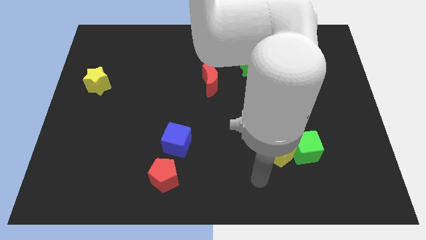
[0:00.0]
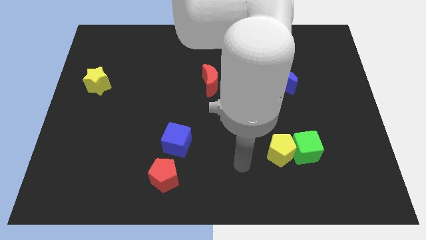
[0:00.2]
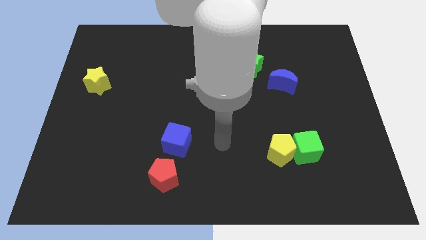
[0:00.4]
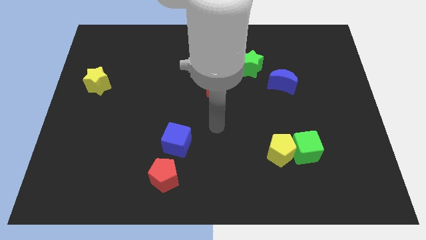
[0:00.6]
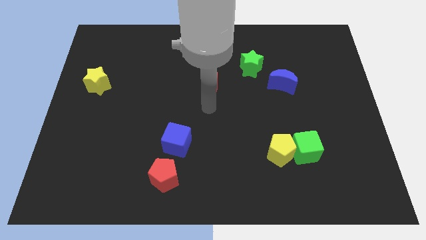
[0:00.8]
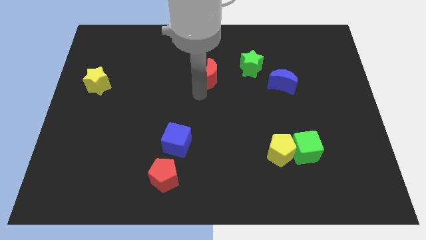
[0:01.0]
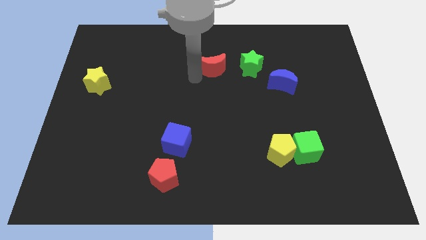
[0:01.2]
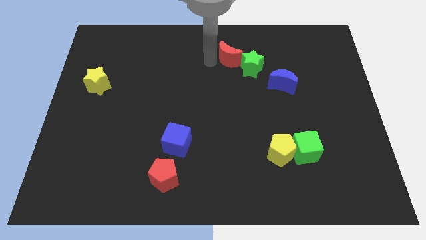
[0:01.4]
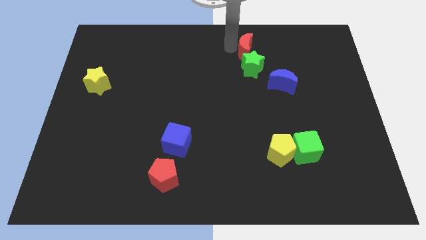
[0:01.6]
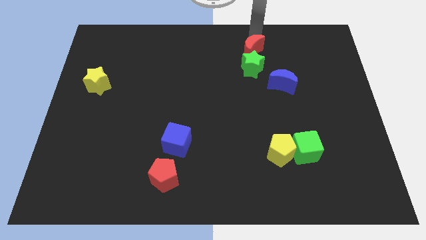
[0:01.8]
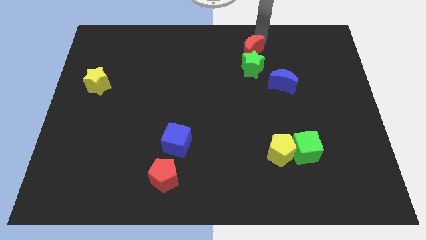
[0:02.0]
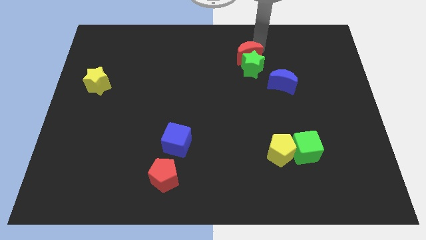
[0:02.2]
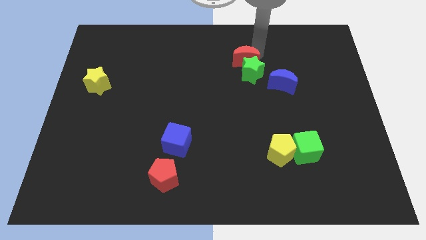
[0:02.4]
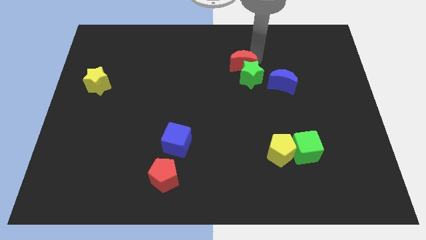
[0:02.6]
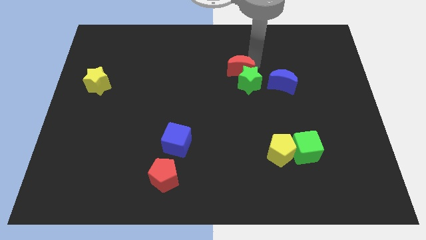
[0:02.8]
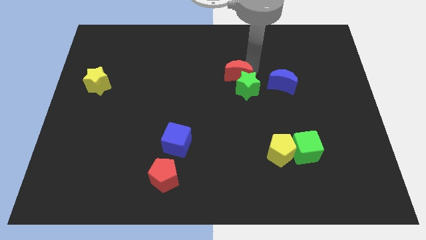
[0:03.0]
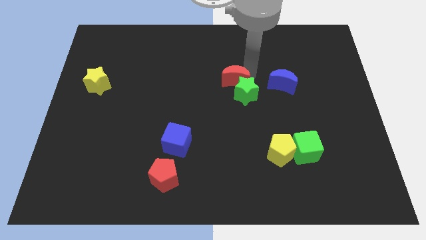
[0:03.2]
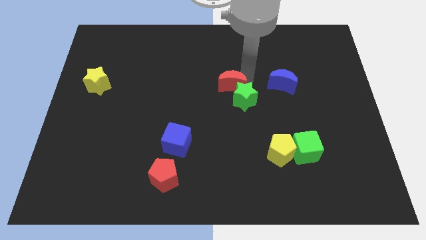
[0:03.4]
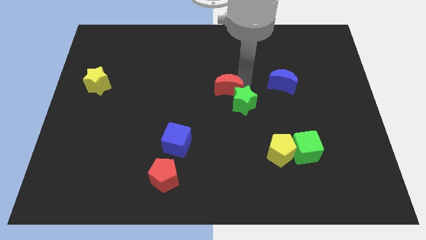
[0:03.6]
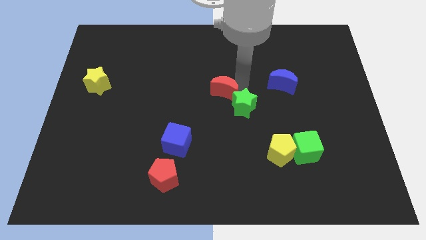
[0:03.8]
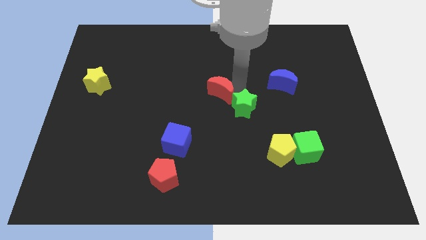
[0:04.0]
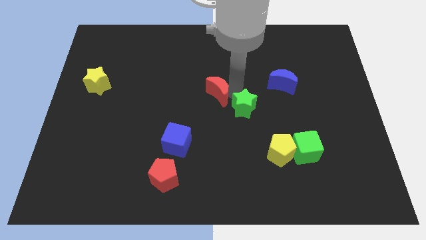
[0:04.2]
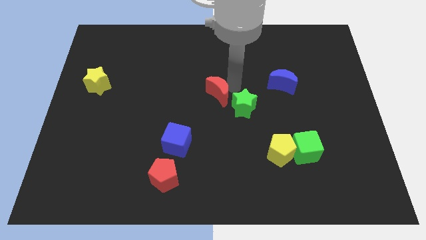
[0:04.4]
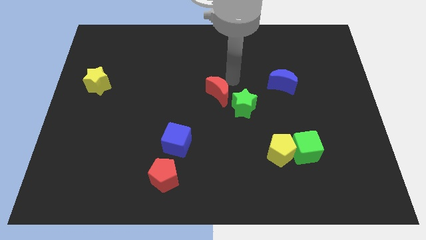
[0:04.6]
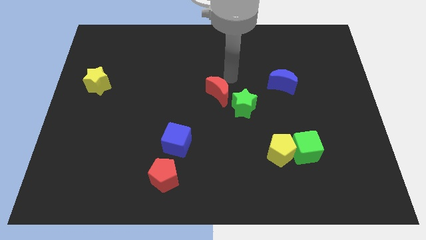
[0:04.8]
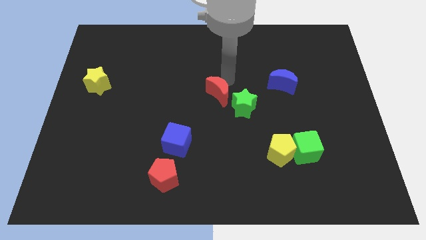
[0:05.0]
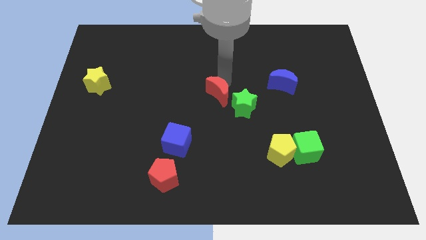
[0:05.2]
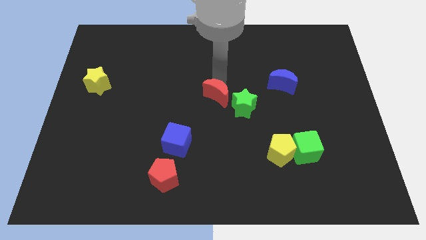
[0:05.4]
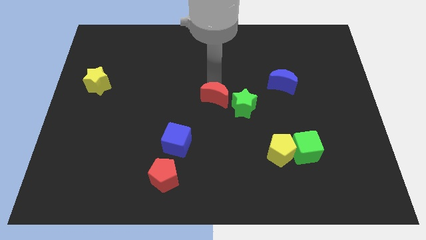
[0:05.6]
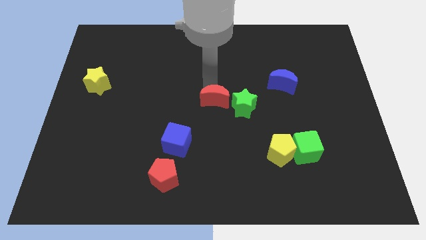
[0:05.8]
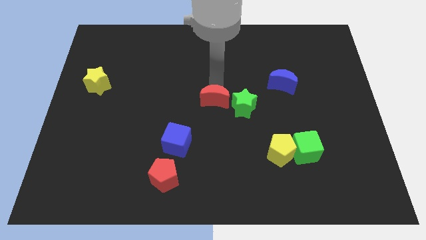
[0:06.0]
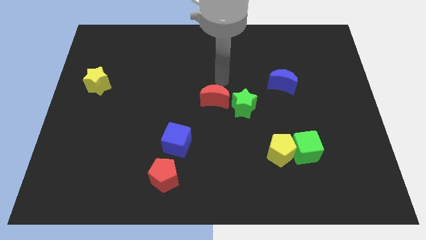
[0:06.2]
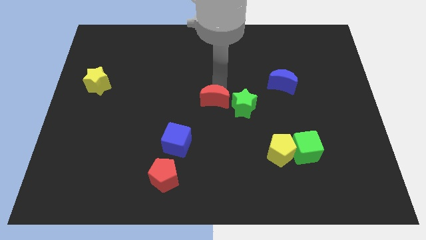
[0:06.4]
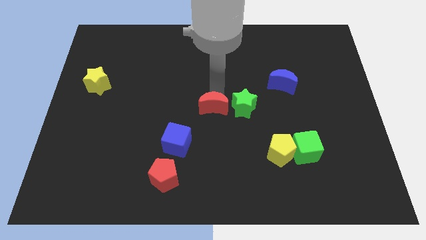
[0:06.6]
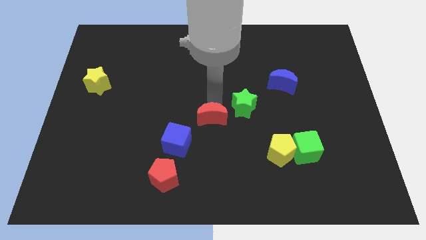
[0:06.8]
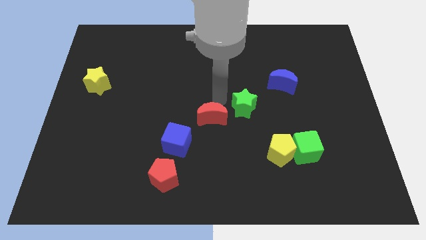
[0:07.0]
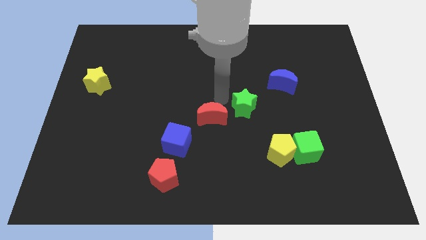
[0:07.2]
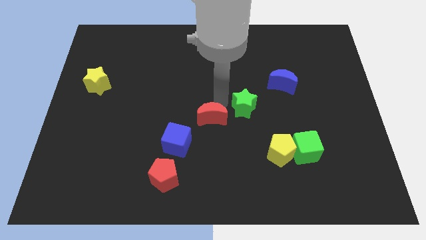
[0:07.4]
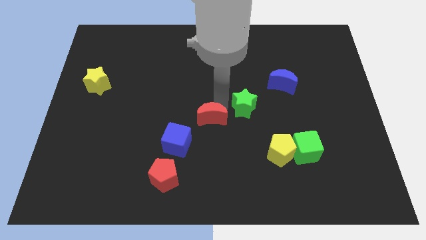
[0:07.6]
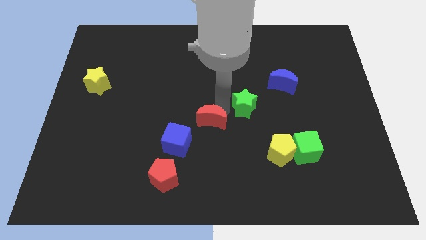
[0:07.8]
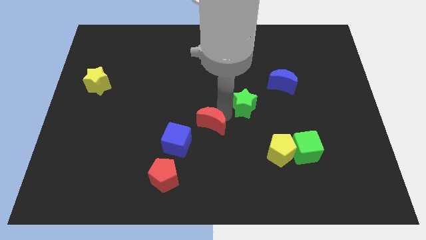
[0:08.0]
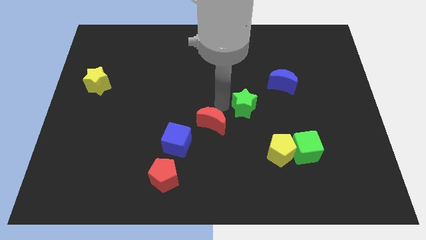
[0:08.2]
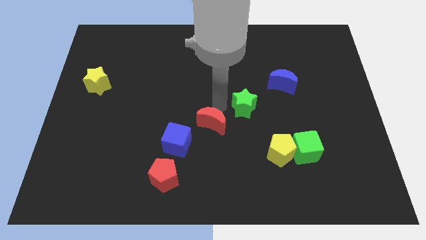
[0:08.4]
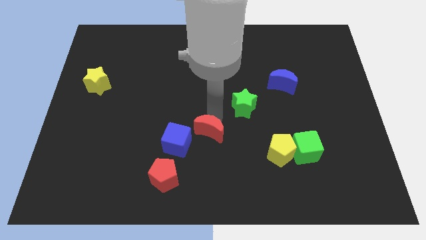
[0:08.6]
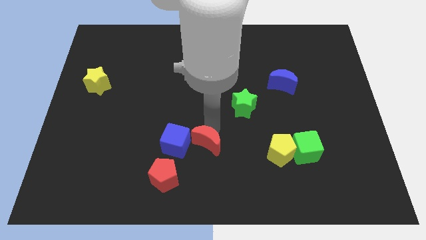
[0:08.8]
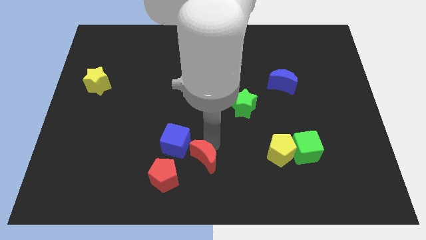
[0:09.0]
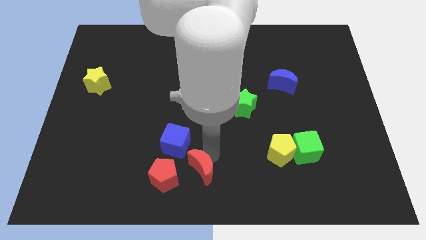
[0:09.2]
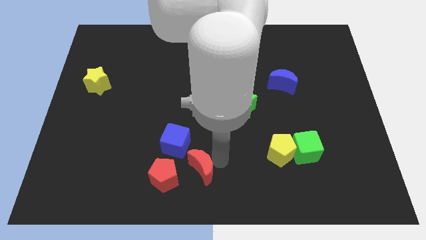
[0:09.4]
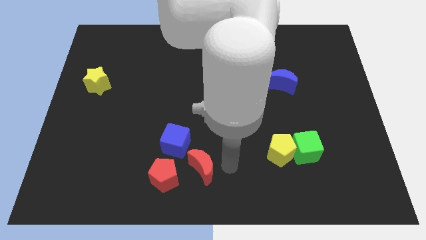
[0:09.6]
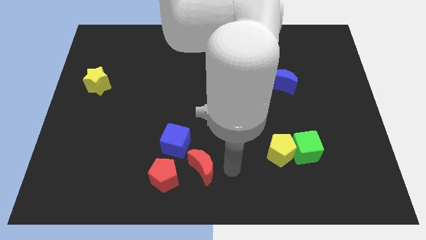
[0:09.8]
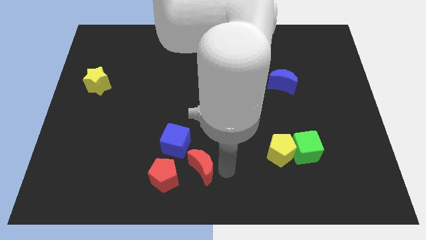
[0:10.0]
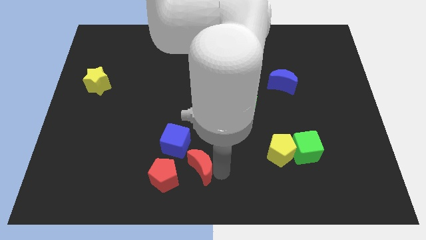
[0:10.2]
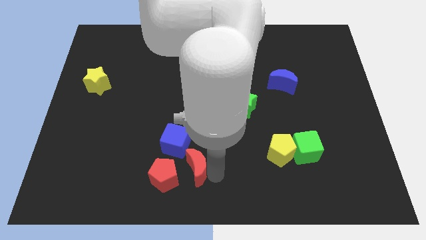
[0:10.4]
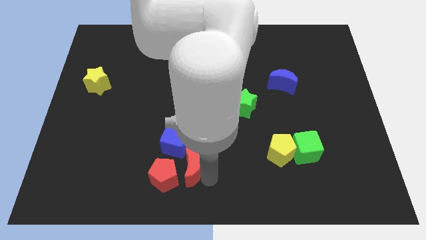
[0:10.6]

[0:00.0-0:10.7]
move the red moon next to the red pentagon

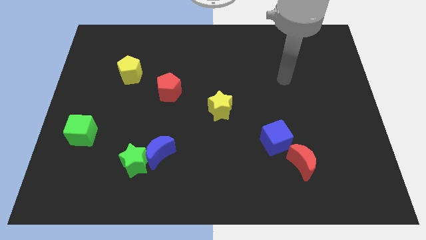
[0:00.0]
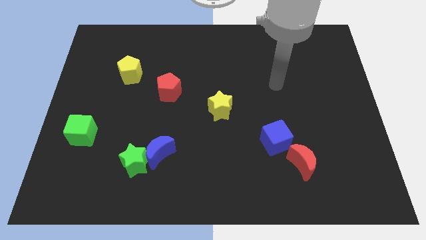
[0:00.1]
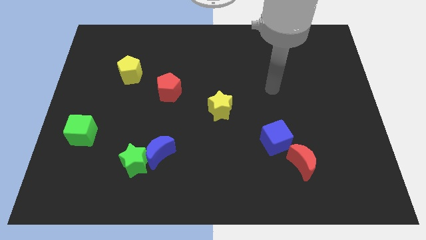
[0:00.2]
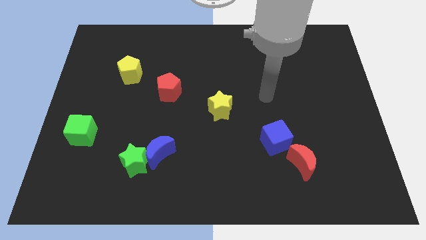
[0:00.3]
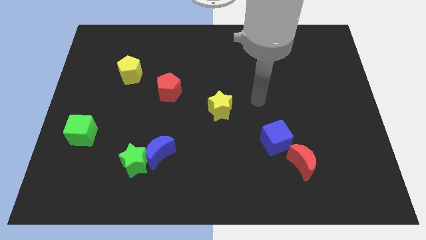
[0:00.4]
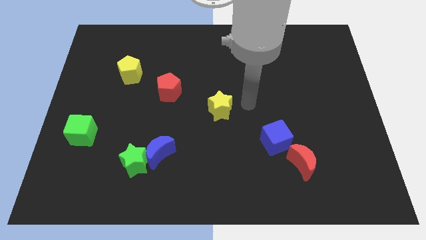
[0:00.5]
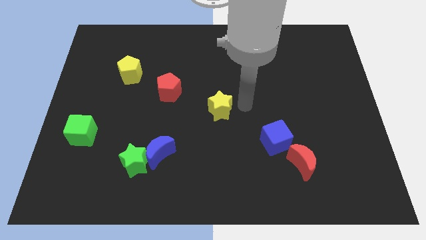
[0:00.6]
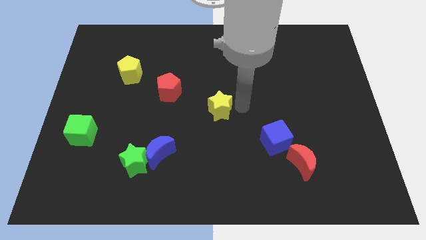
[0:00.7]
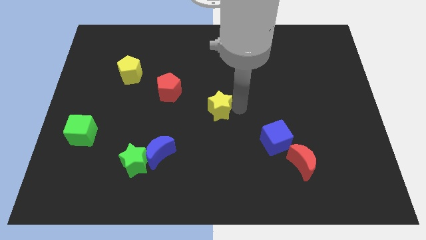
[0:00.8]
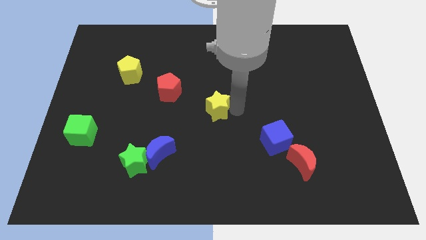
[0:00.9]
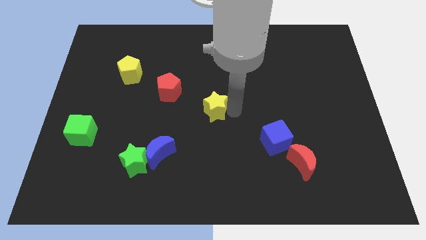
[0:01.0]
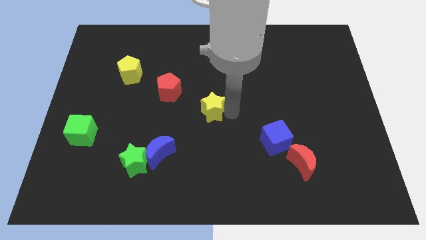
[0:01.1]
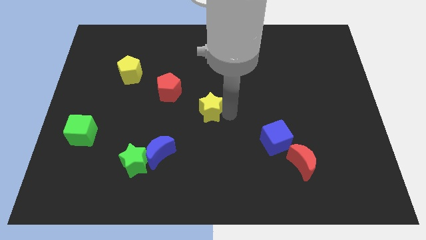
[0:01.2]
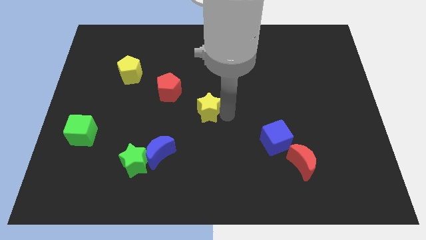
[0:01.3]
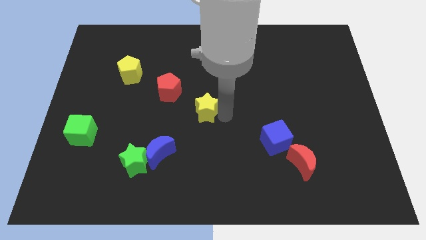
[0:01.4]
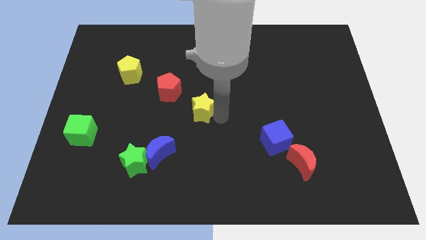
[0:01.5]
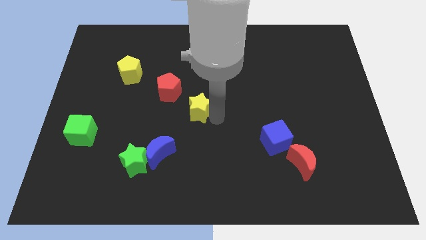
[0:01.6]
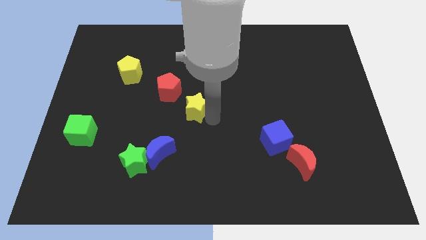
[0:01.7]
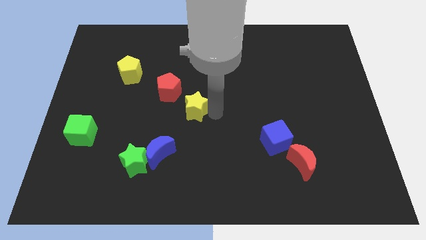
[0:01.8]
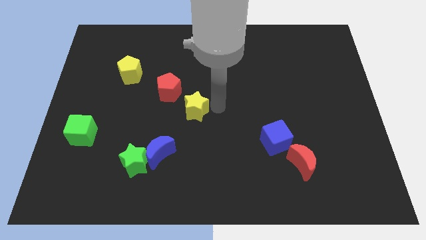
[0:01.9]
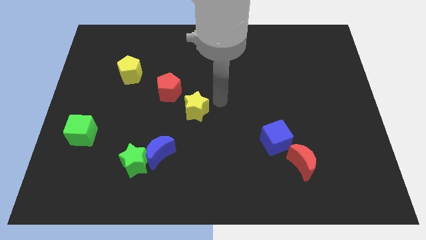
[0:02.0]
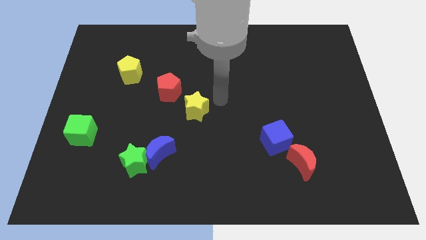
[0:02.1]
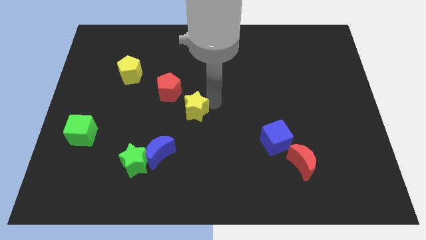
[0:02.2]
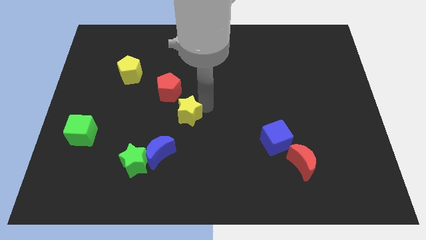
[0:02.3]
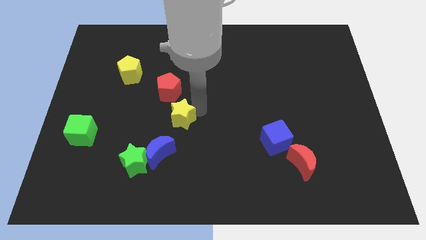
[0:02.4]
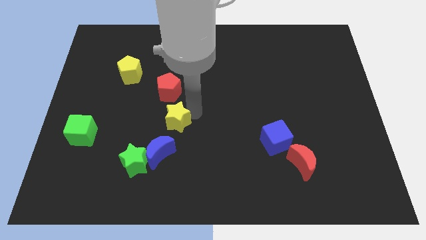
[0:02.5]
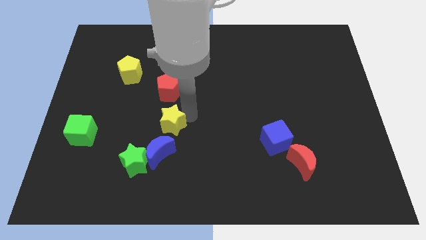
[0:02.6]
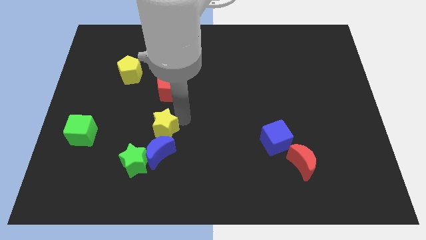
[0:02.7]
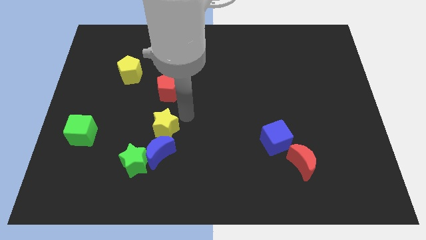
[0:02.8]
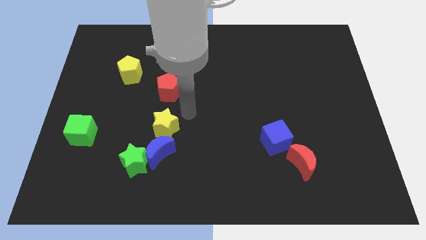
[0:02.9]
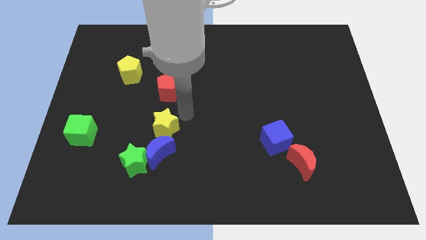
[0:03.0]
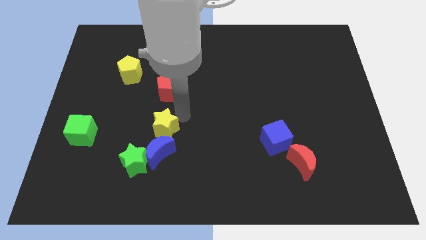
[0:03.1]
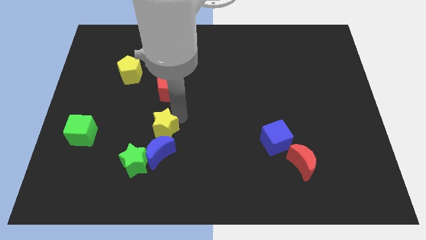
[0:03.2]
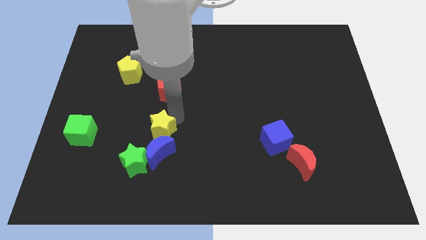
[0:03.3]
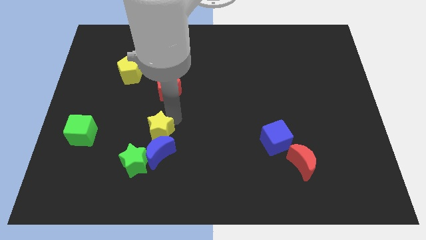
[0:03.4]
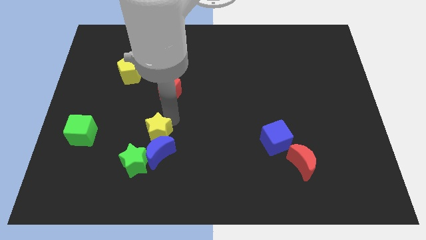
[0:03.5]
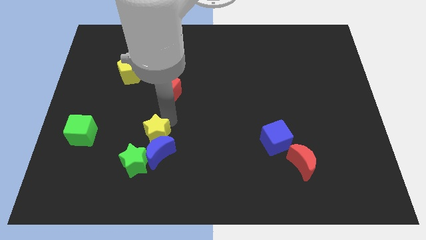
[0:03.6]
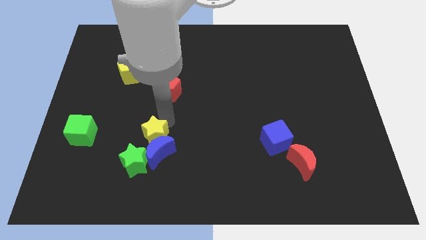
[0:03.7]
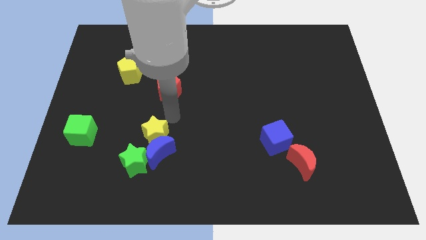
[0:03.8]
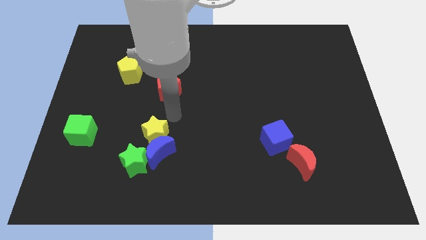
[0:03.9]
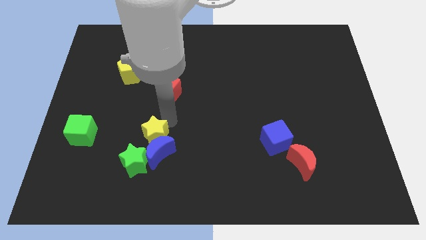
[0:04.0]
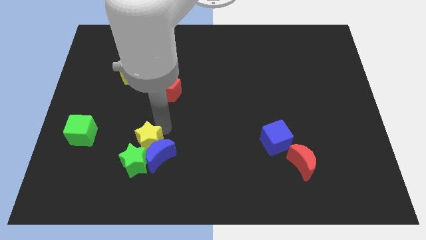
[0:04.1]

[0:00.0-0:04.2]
slide the yellow star next to the green star
